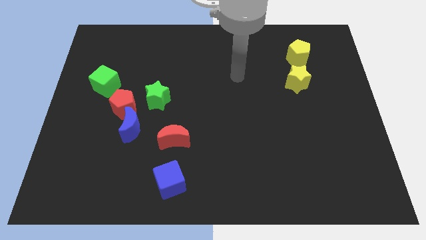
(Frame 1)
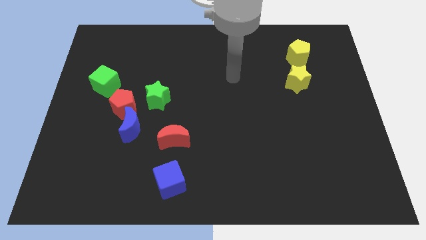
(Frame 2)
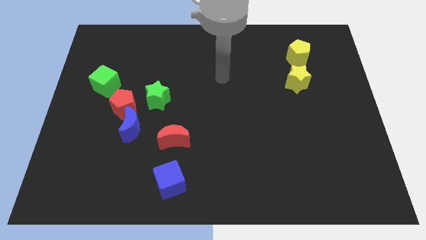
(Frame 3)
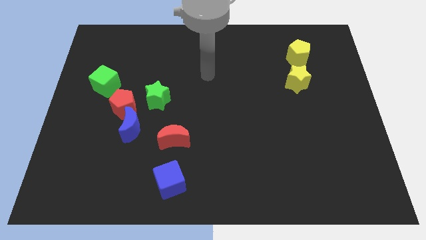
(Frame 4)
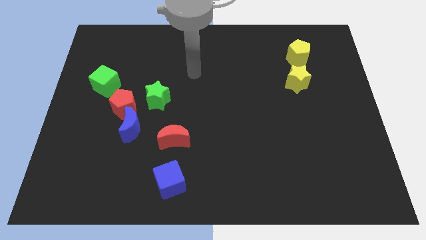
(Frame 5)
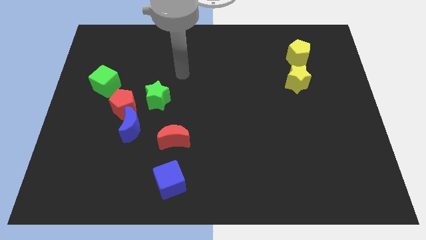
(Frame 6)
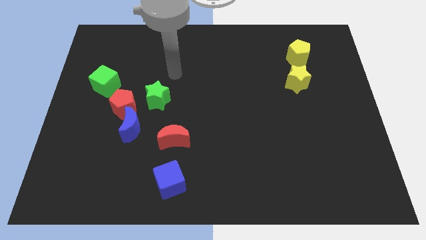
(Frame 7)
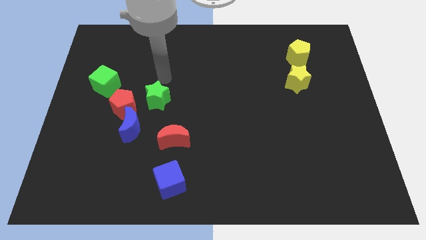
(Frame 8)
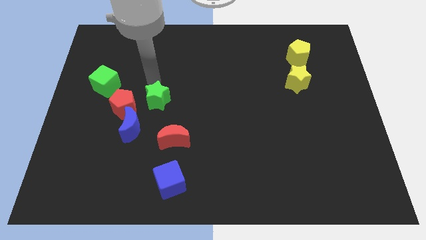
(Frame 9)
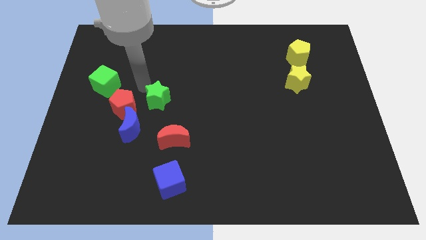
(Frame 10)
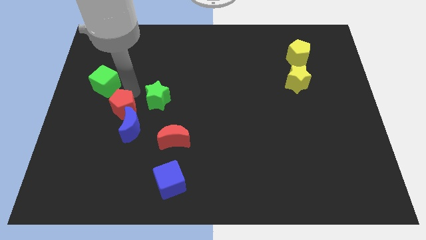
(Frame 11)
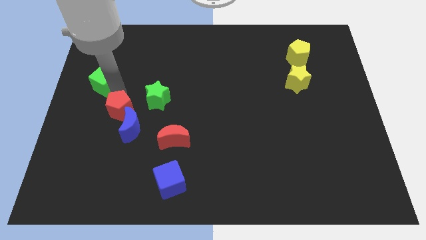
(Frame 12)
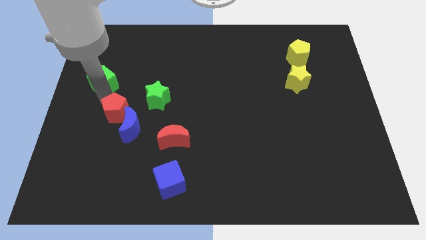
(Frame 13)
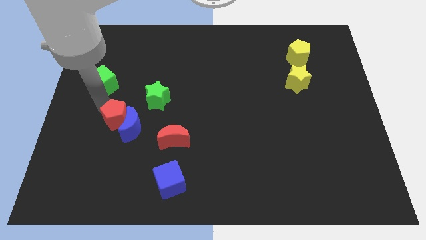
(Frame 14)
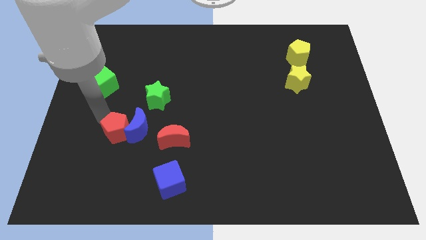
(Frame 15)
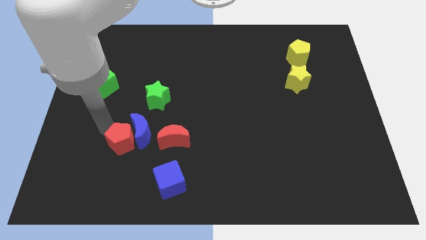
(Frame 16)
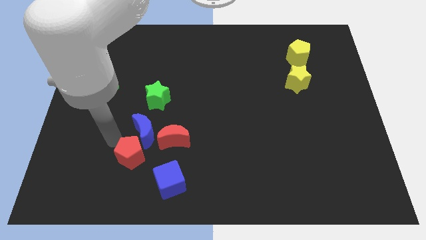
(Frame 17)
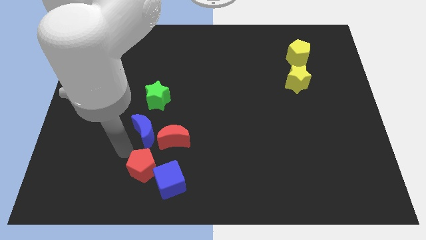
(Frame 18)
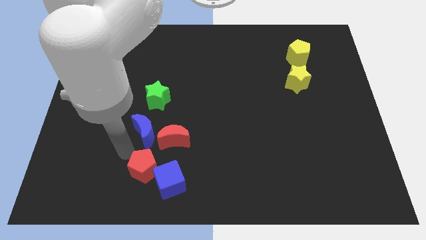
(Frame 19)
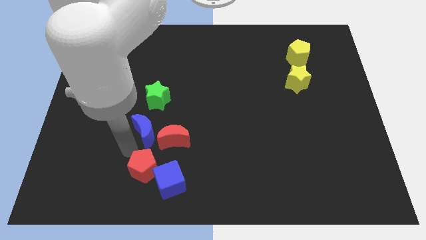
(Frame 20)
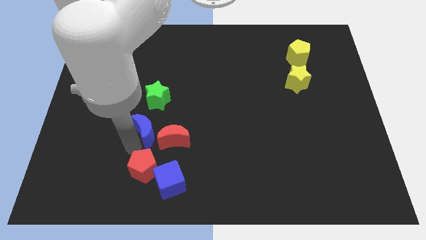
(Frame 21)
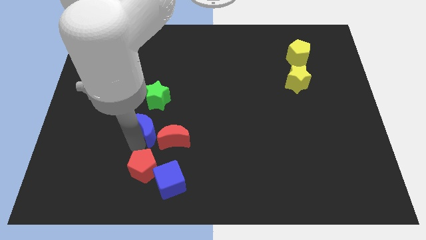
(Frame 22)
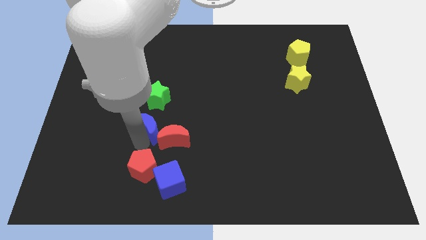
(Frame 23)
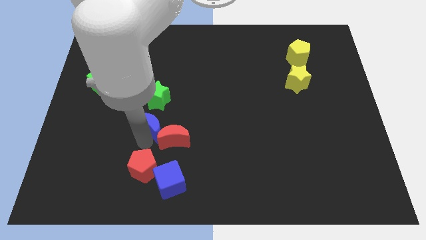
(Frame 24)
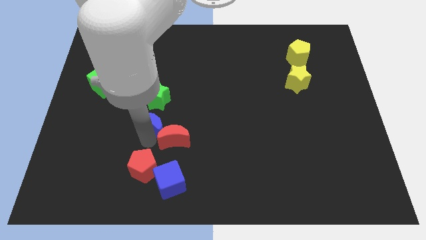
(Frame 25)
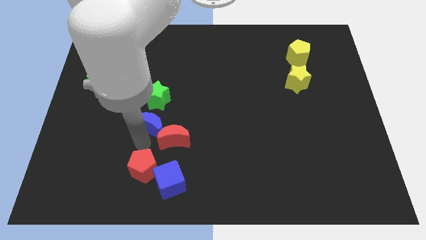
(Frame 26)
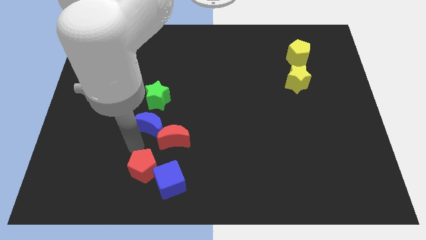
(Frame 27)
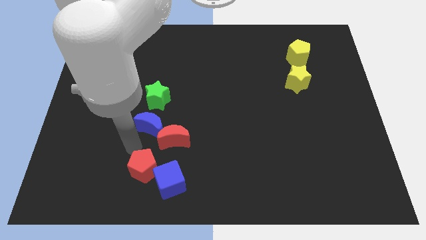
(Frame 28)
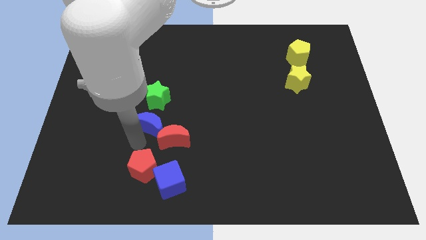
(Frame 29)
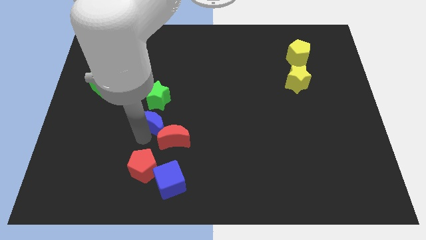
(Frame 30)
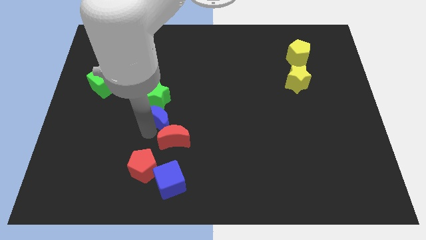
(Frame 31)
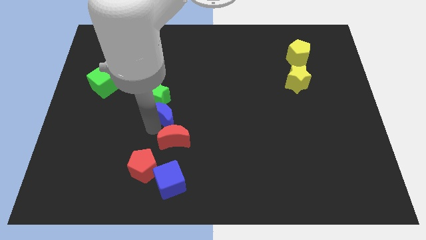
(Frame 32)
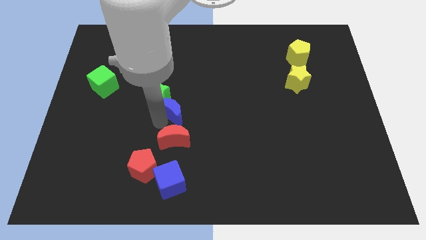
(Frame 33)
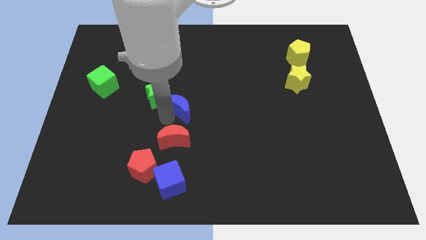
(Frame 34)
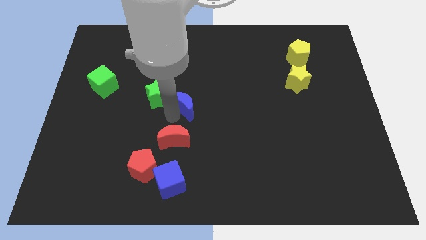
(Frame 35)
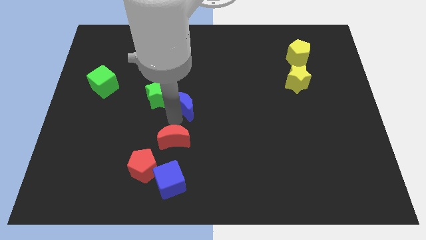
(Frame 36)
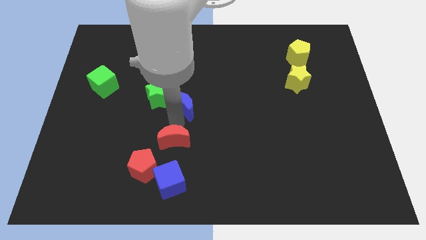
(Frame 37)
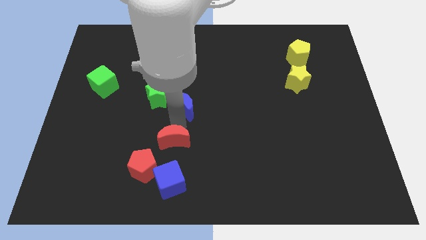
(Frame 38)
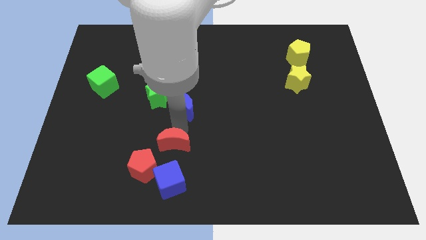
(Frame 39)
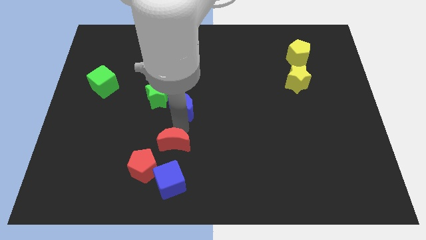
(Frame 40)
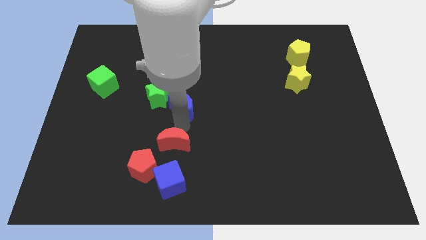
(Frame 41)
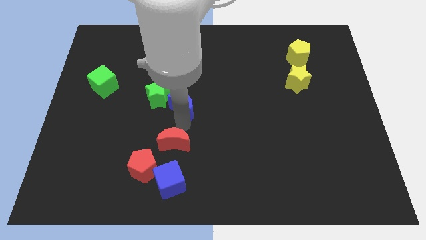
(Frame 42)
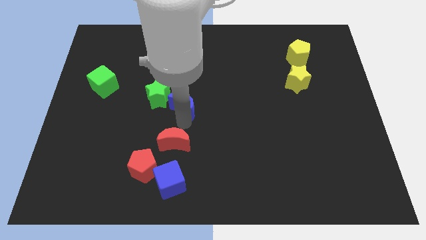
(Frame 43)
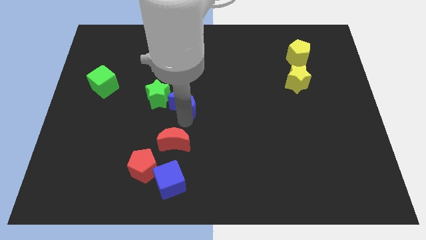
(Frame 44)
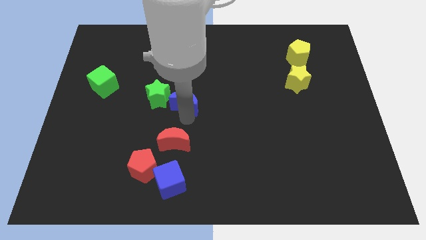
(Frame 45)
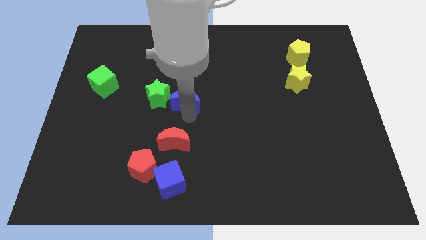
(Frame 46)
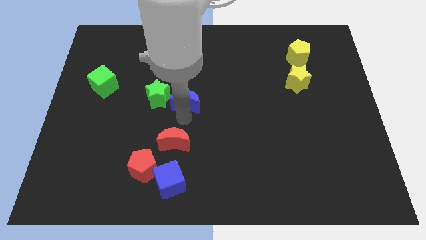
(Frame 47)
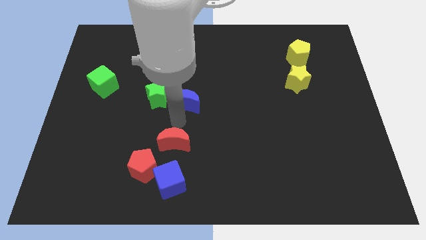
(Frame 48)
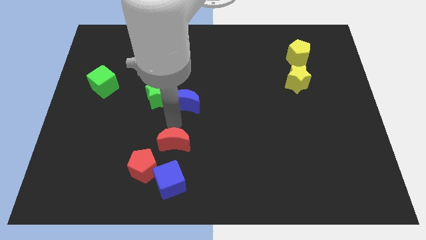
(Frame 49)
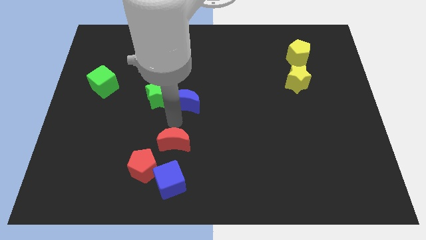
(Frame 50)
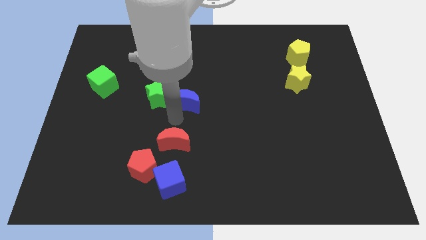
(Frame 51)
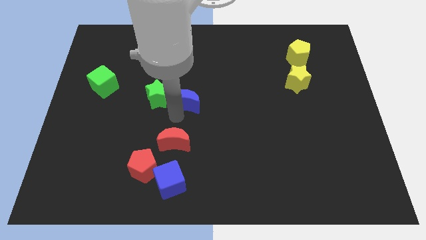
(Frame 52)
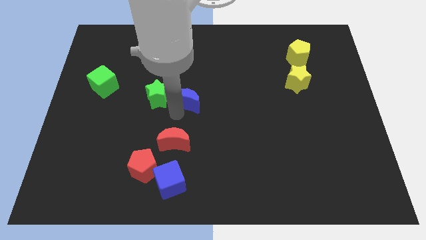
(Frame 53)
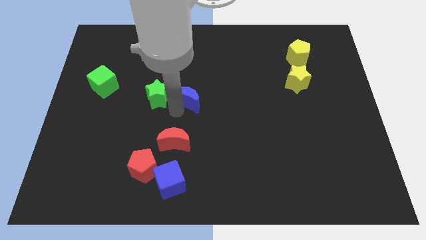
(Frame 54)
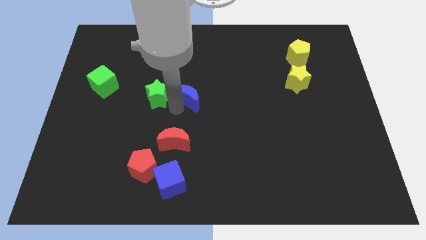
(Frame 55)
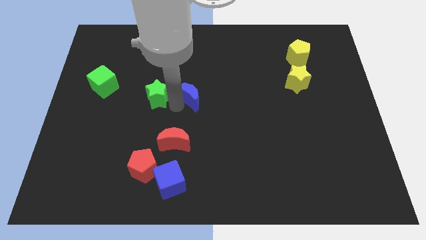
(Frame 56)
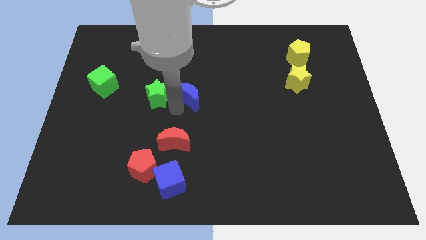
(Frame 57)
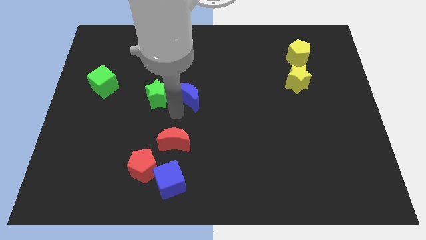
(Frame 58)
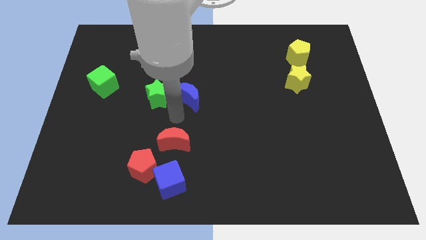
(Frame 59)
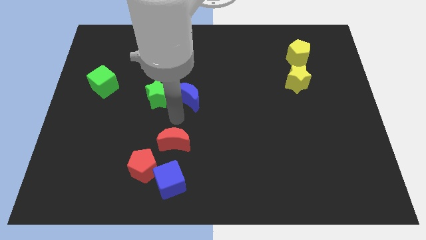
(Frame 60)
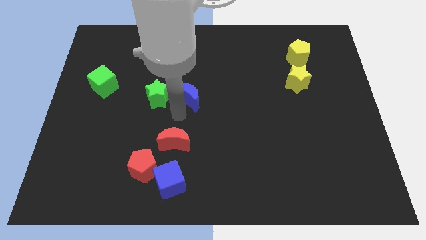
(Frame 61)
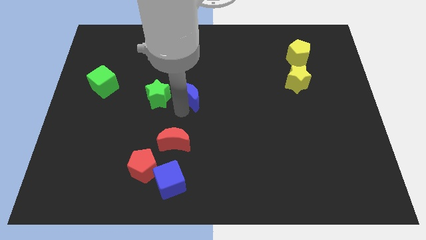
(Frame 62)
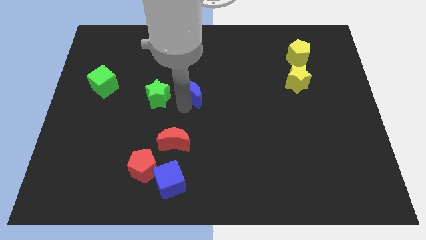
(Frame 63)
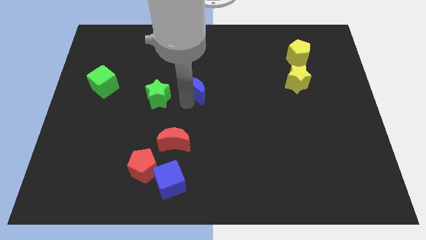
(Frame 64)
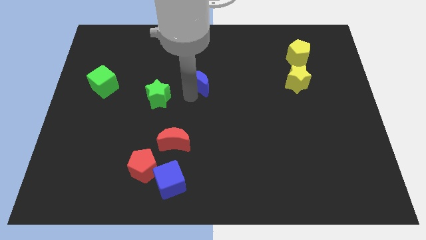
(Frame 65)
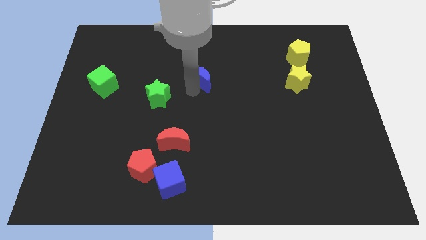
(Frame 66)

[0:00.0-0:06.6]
push the blue moon up and then right

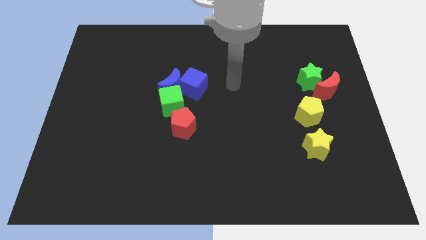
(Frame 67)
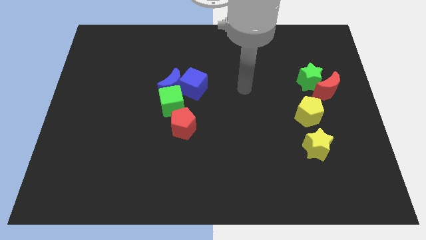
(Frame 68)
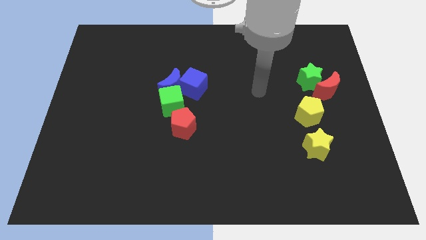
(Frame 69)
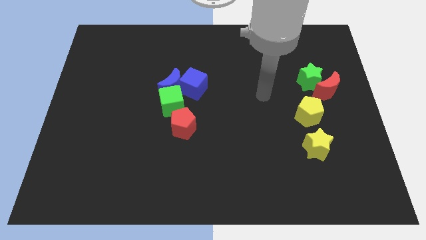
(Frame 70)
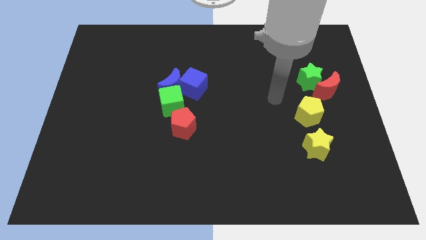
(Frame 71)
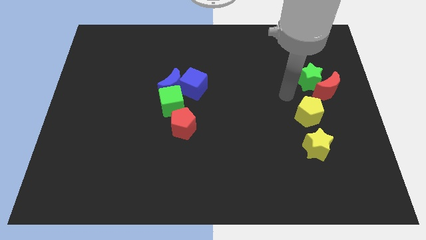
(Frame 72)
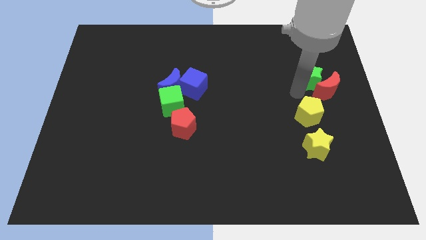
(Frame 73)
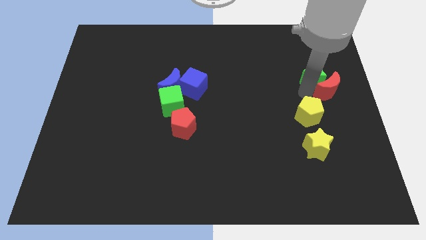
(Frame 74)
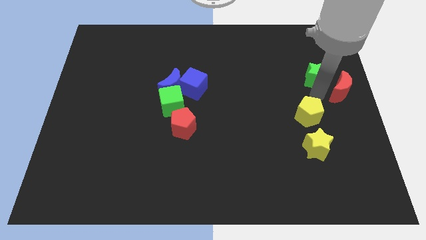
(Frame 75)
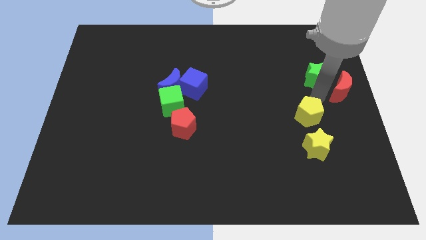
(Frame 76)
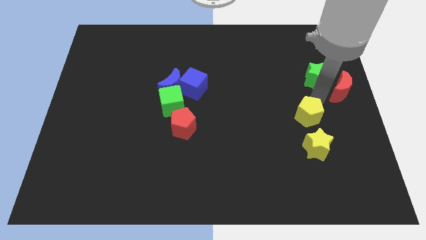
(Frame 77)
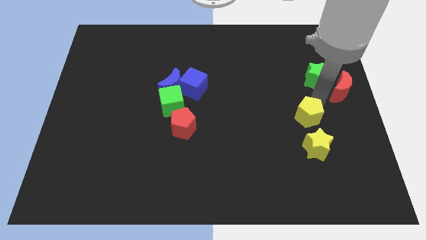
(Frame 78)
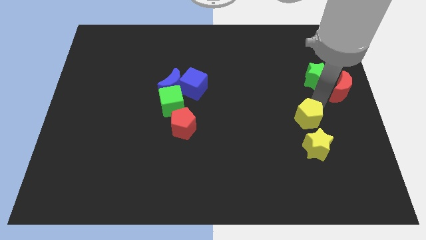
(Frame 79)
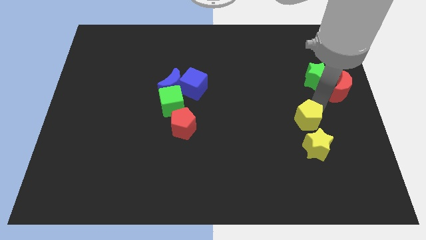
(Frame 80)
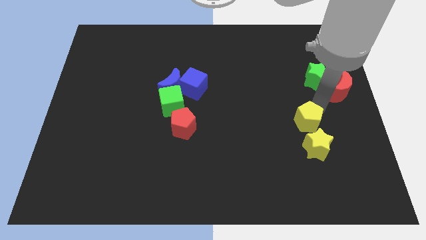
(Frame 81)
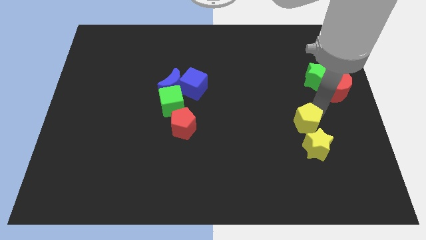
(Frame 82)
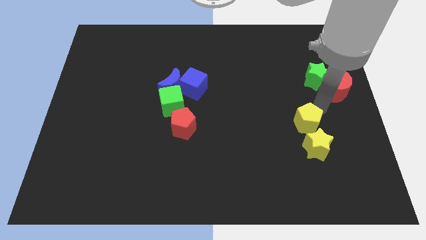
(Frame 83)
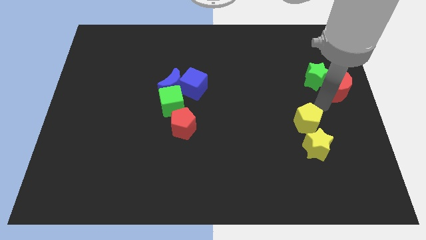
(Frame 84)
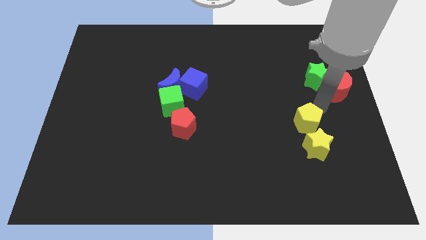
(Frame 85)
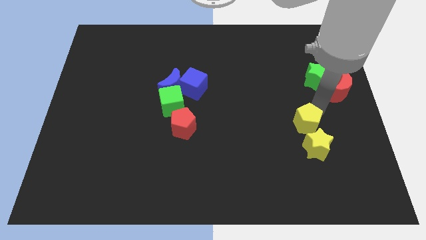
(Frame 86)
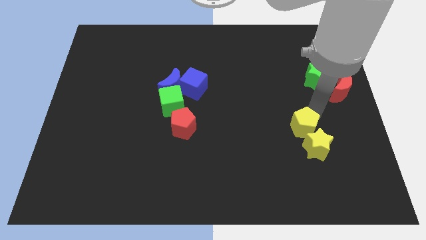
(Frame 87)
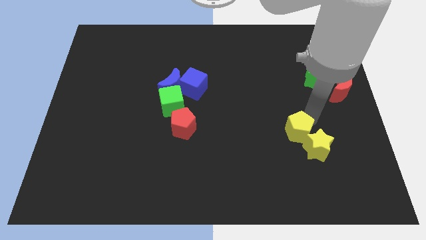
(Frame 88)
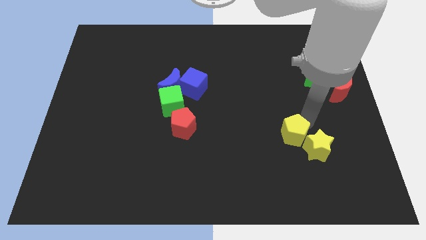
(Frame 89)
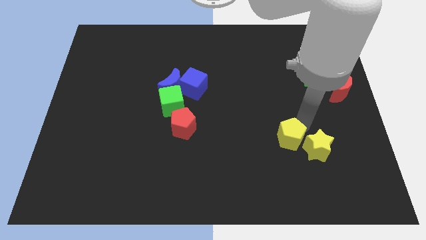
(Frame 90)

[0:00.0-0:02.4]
slightly slide the yellow pentagon down and then to the left
